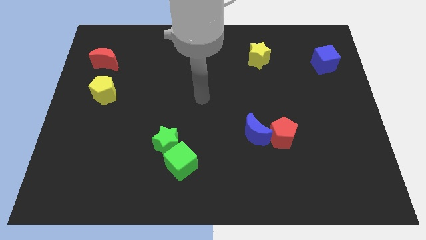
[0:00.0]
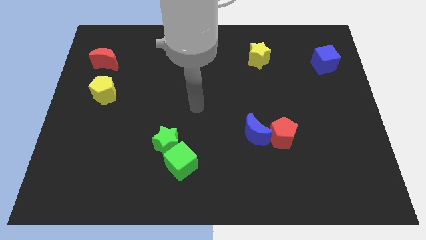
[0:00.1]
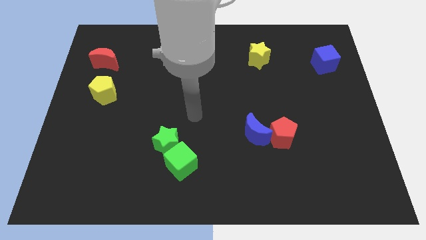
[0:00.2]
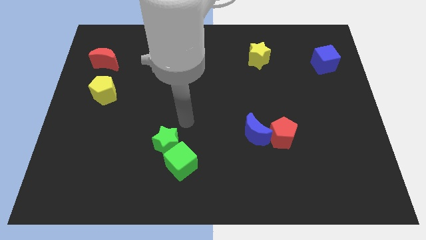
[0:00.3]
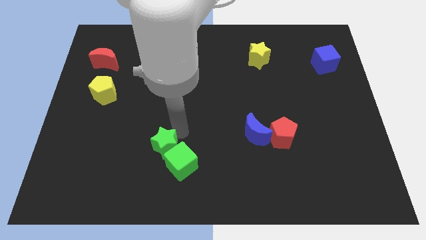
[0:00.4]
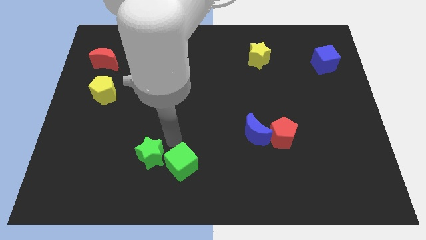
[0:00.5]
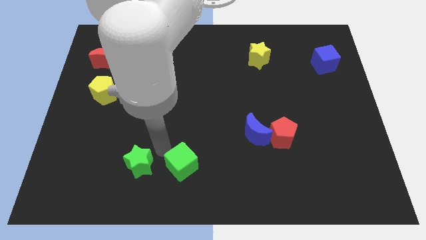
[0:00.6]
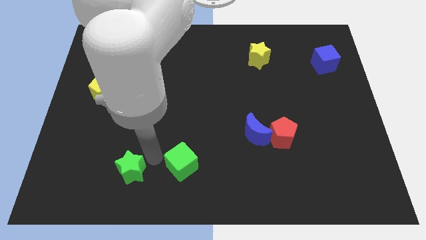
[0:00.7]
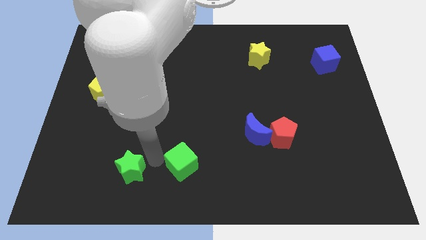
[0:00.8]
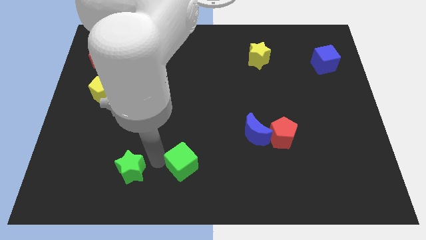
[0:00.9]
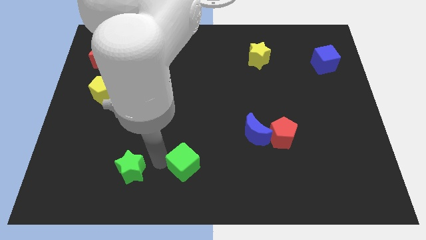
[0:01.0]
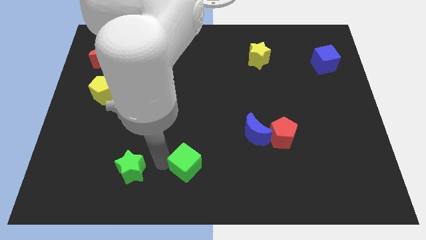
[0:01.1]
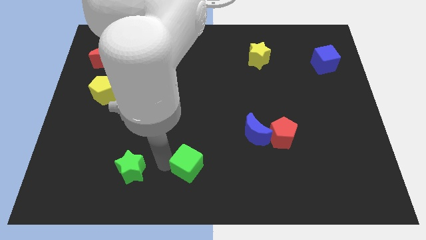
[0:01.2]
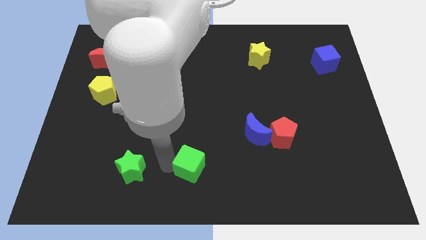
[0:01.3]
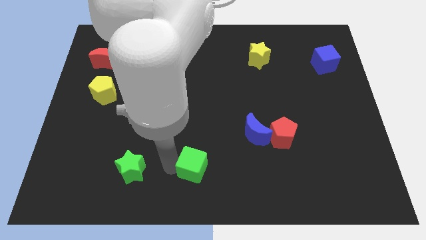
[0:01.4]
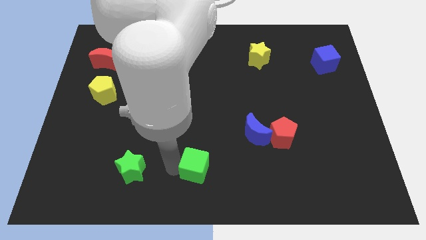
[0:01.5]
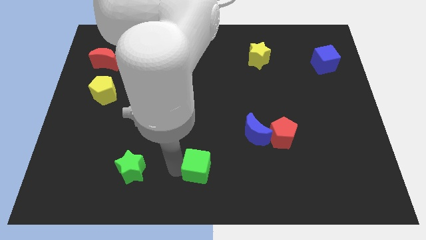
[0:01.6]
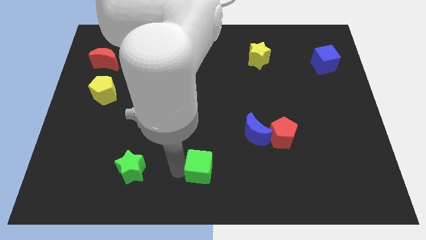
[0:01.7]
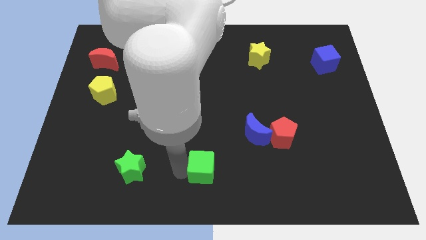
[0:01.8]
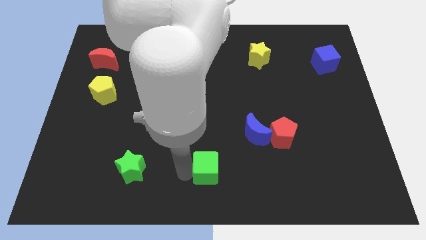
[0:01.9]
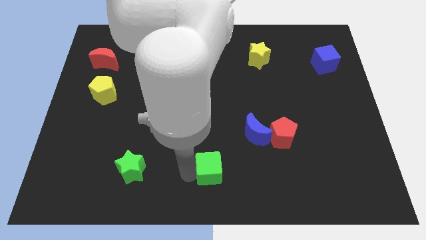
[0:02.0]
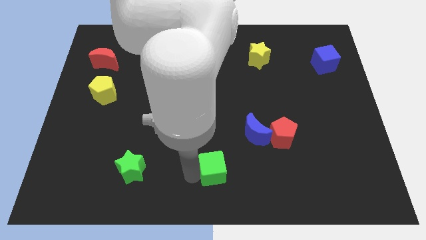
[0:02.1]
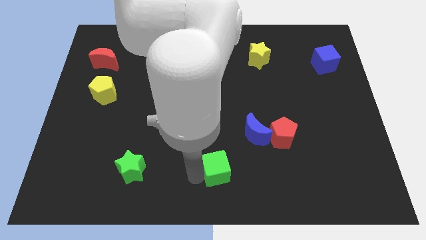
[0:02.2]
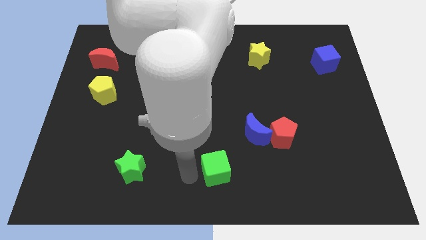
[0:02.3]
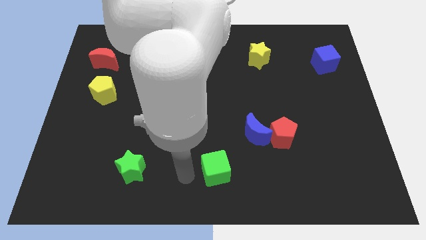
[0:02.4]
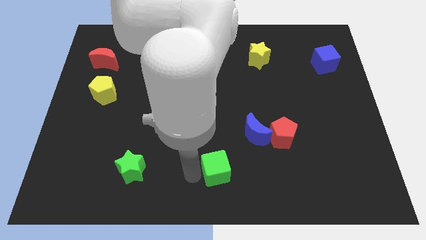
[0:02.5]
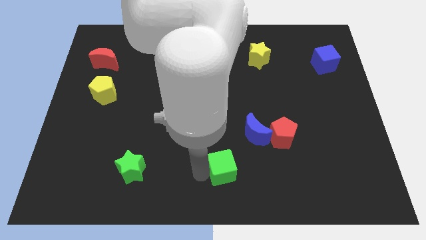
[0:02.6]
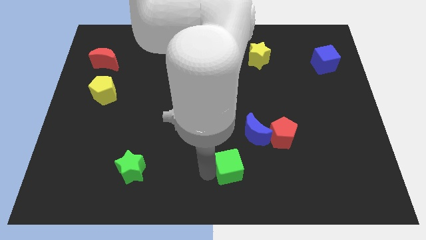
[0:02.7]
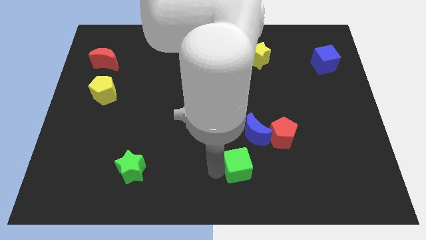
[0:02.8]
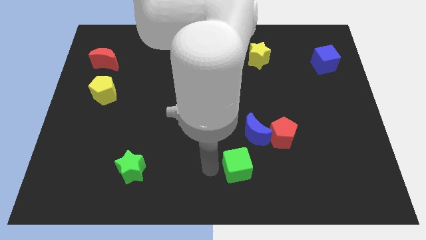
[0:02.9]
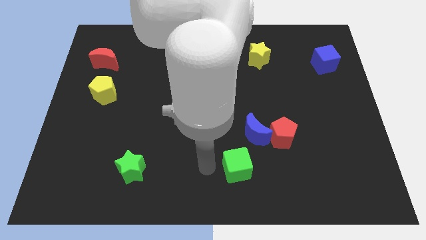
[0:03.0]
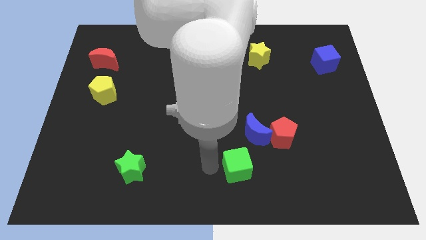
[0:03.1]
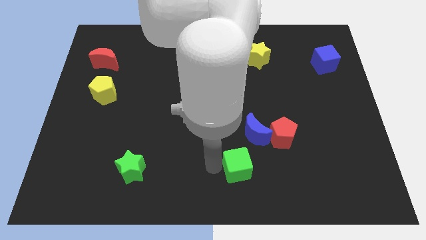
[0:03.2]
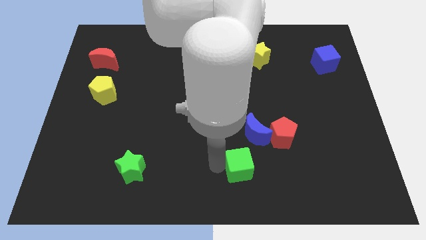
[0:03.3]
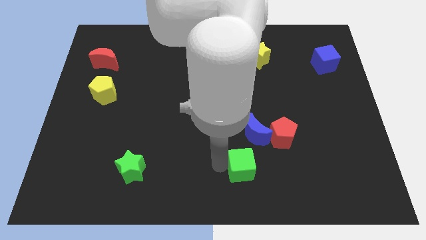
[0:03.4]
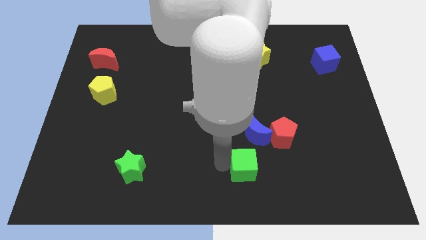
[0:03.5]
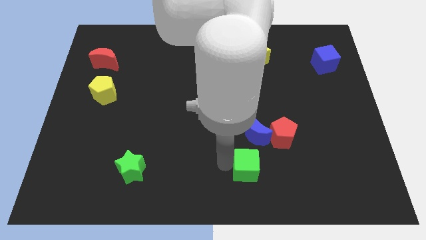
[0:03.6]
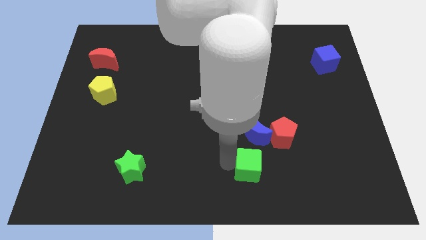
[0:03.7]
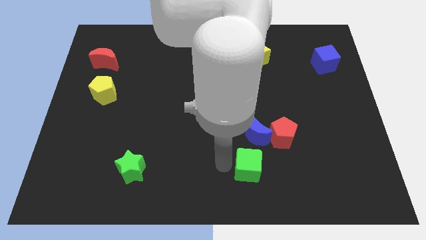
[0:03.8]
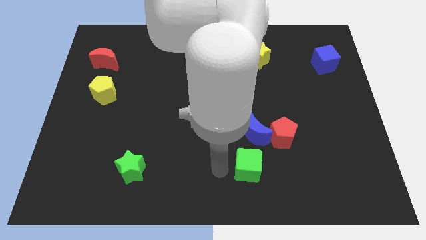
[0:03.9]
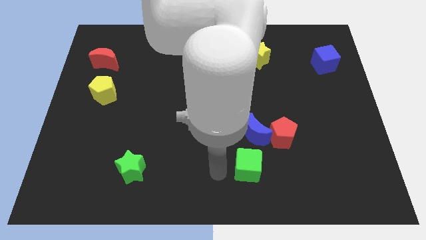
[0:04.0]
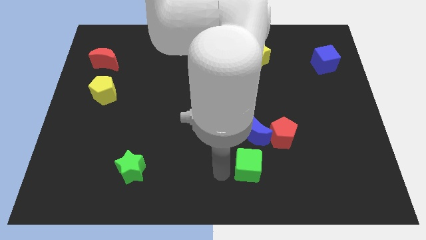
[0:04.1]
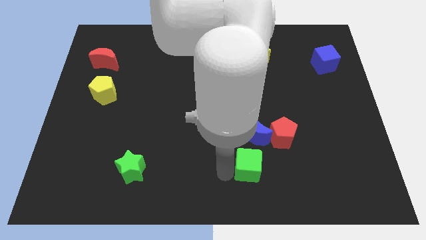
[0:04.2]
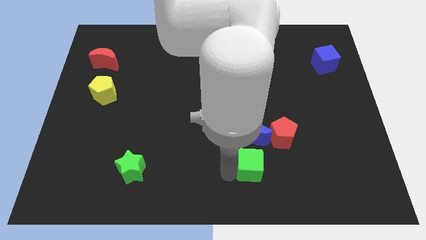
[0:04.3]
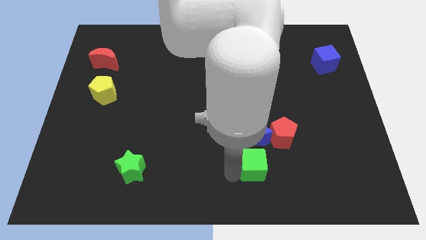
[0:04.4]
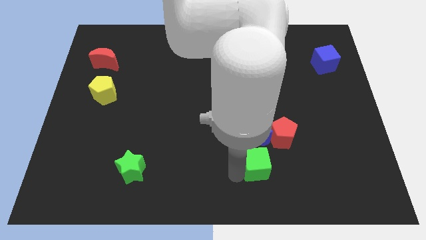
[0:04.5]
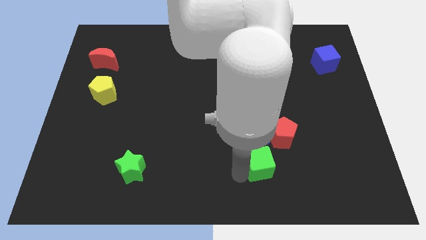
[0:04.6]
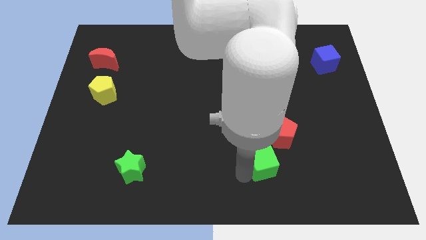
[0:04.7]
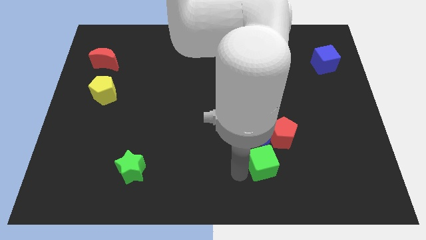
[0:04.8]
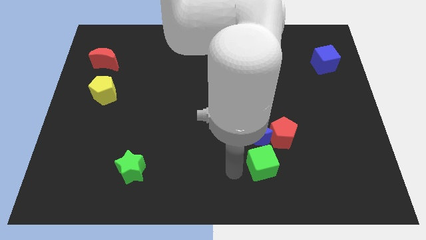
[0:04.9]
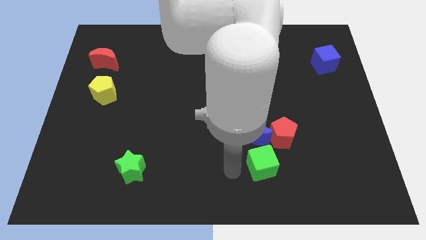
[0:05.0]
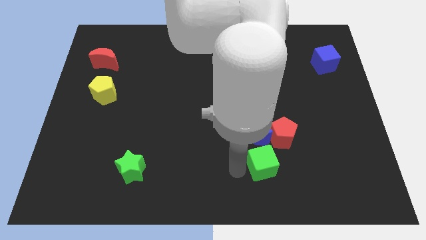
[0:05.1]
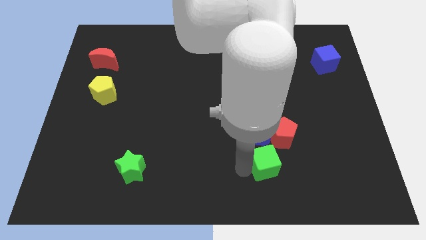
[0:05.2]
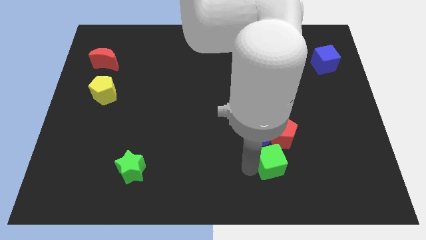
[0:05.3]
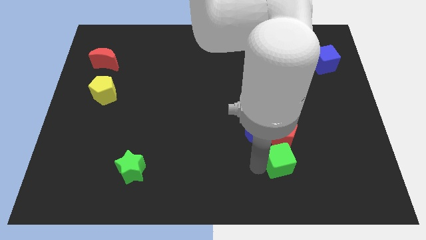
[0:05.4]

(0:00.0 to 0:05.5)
push the green cube to the right

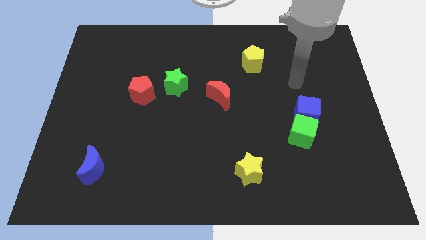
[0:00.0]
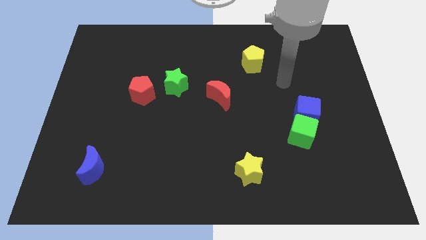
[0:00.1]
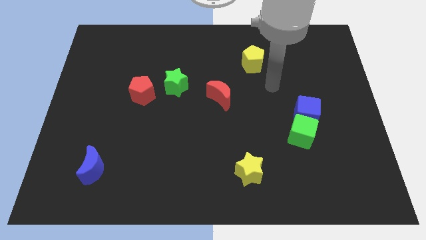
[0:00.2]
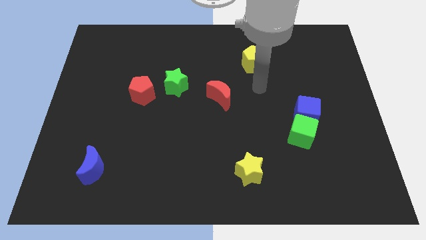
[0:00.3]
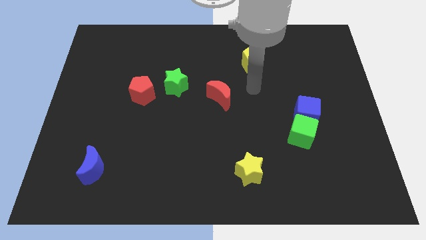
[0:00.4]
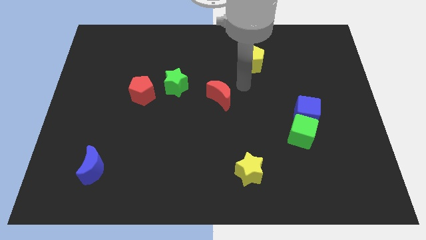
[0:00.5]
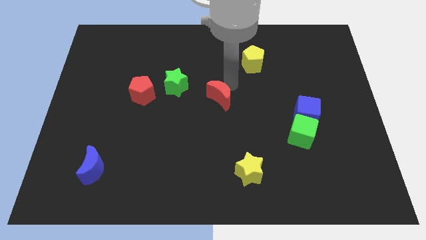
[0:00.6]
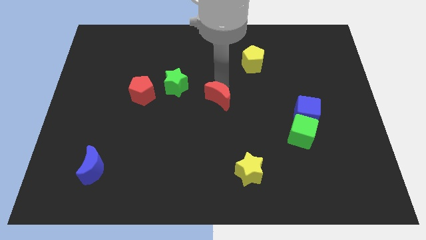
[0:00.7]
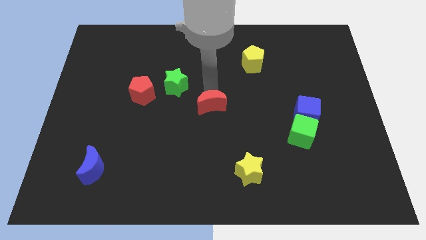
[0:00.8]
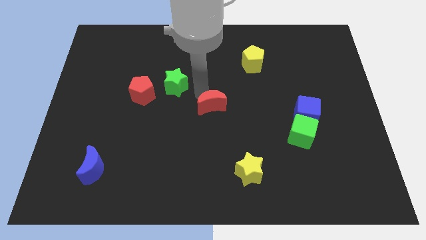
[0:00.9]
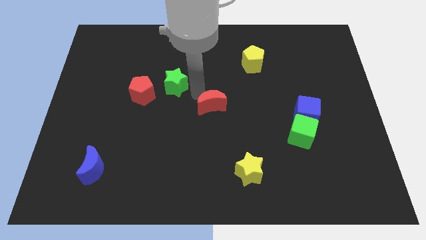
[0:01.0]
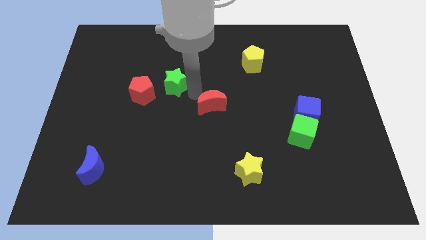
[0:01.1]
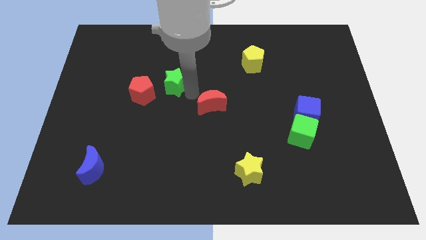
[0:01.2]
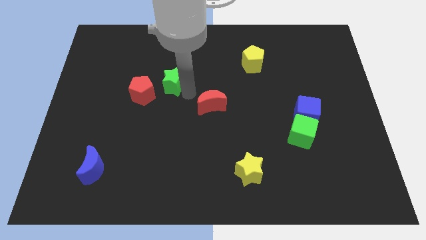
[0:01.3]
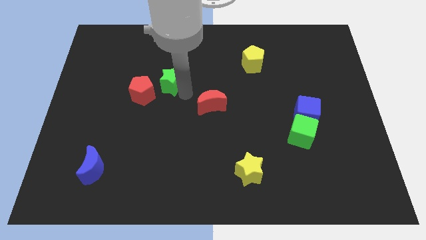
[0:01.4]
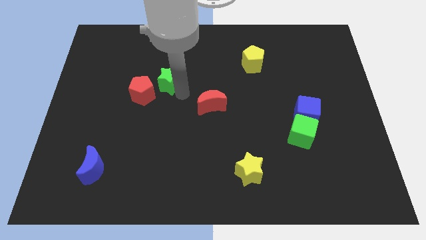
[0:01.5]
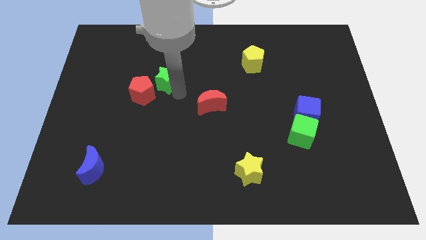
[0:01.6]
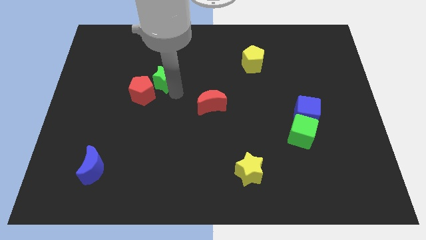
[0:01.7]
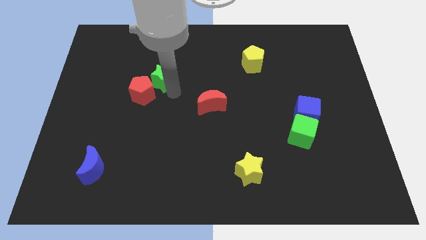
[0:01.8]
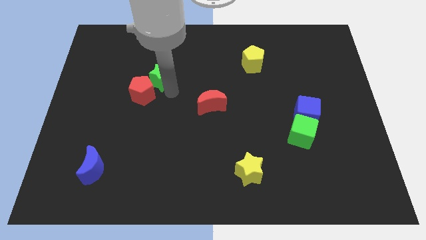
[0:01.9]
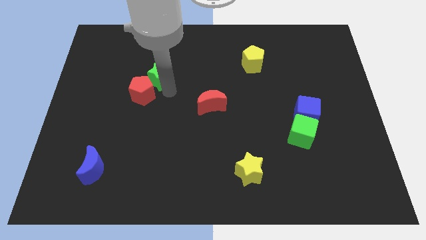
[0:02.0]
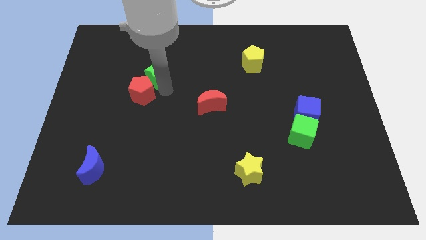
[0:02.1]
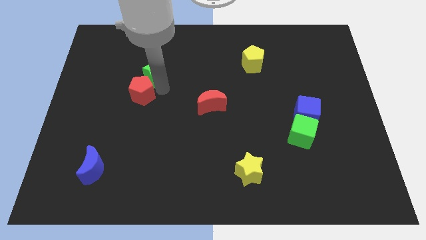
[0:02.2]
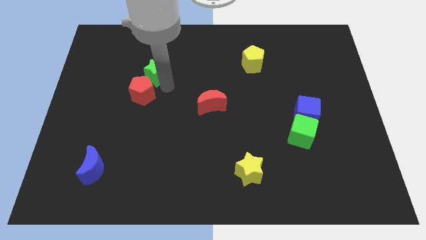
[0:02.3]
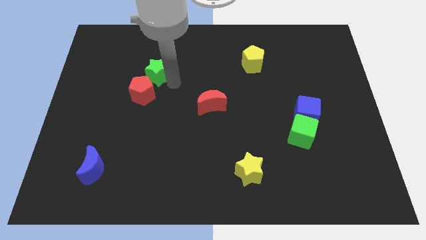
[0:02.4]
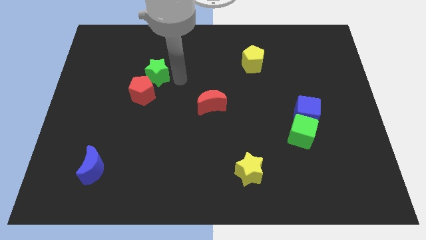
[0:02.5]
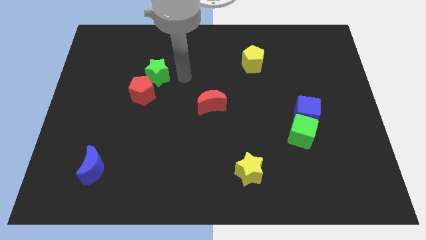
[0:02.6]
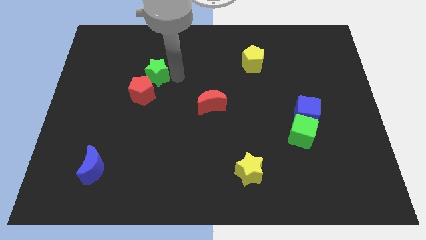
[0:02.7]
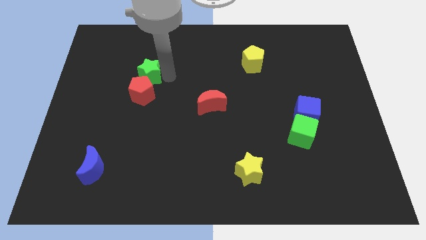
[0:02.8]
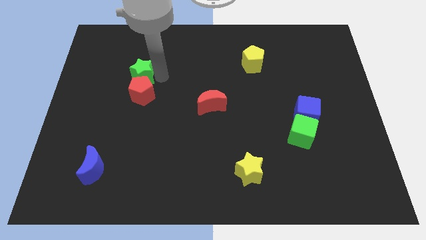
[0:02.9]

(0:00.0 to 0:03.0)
slightly push the green star to the left
